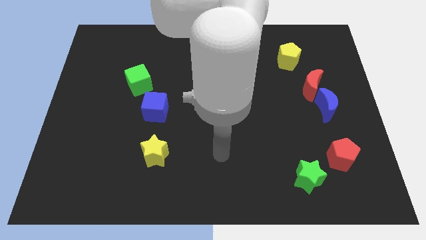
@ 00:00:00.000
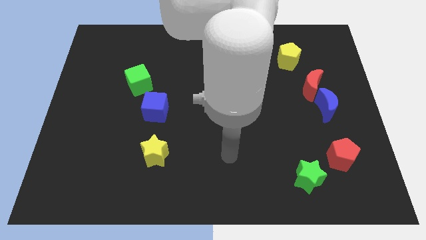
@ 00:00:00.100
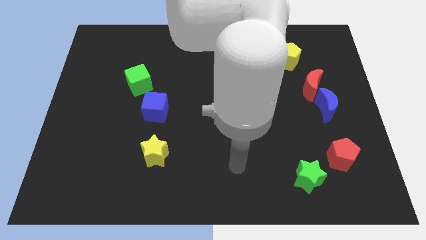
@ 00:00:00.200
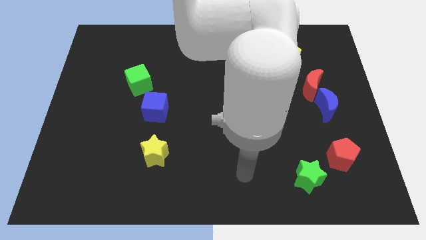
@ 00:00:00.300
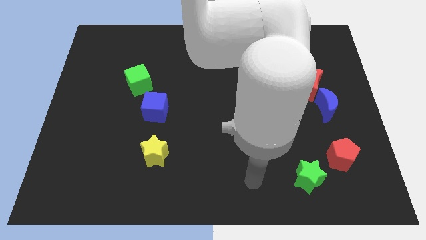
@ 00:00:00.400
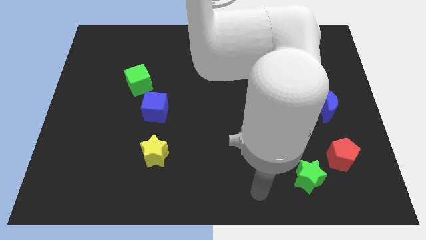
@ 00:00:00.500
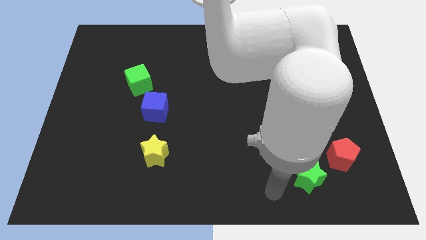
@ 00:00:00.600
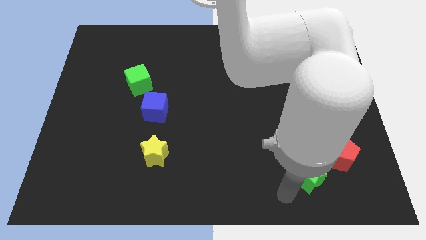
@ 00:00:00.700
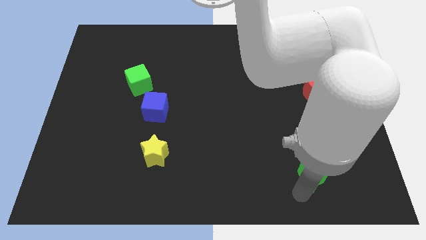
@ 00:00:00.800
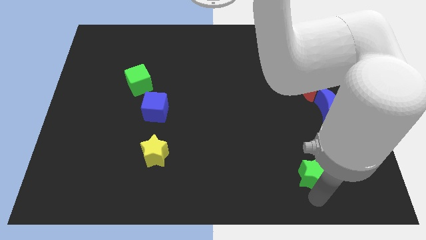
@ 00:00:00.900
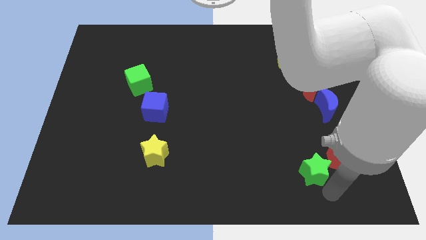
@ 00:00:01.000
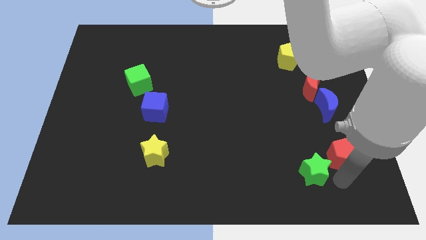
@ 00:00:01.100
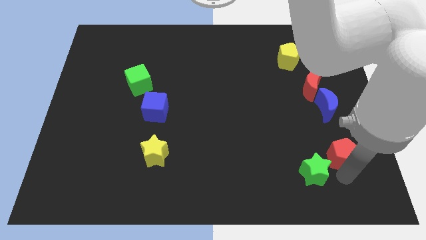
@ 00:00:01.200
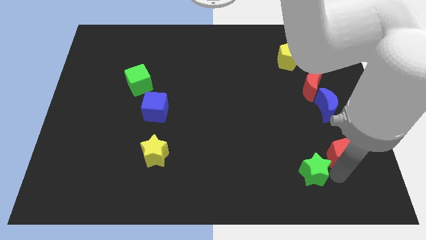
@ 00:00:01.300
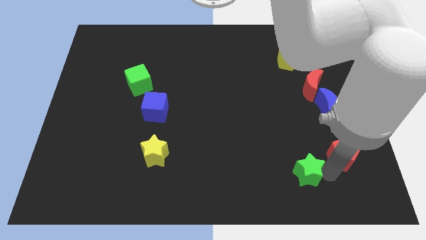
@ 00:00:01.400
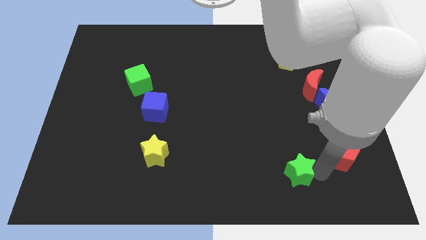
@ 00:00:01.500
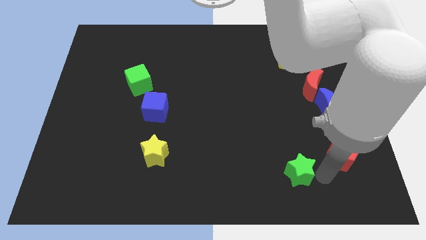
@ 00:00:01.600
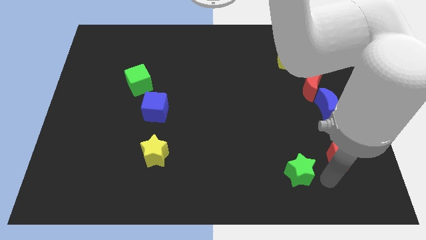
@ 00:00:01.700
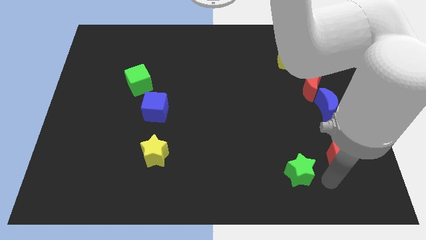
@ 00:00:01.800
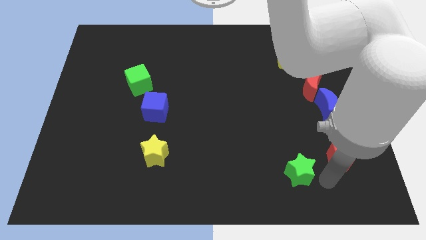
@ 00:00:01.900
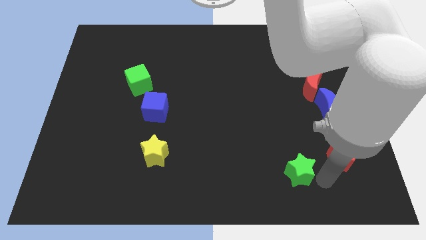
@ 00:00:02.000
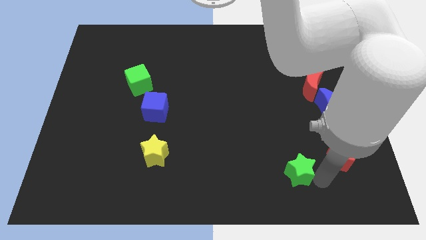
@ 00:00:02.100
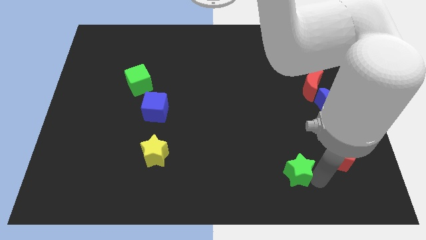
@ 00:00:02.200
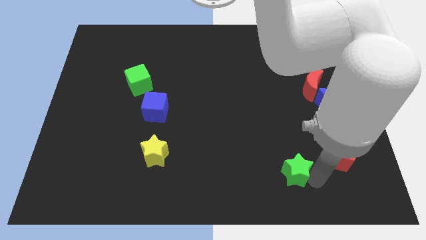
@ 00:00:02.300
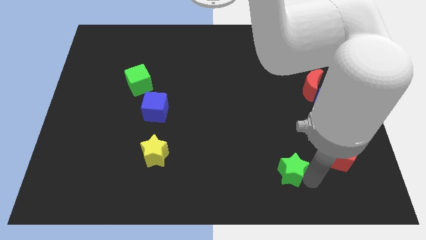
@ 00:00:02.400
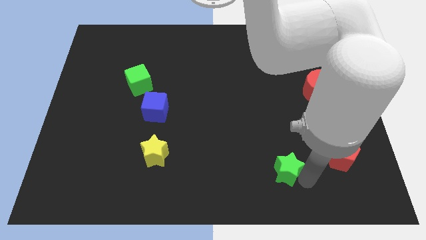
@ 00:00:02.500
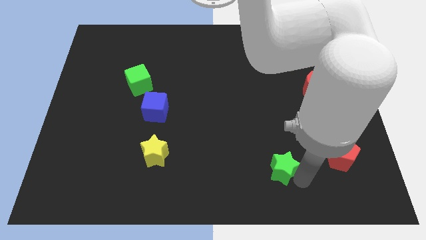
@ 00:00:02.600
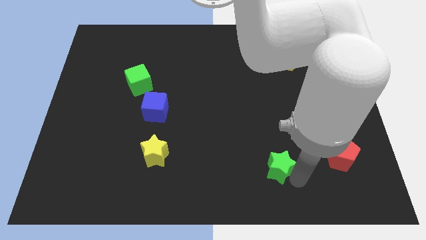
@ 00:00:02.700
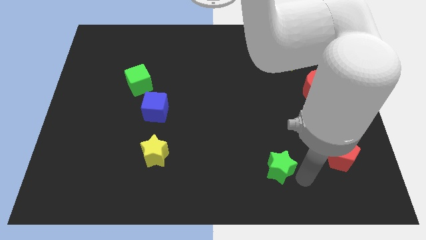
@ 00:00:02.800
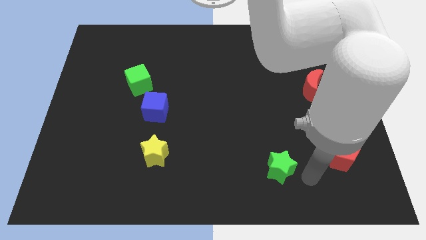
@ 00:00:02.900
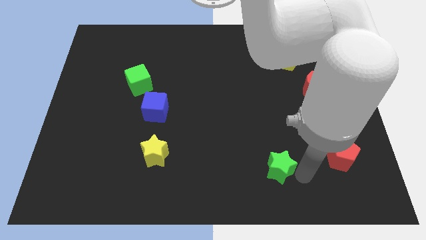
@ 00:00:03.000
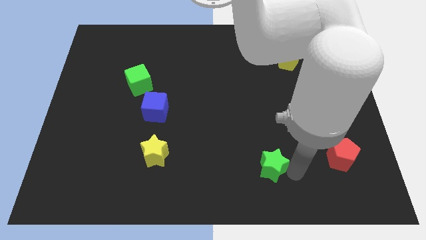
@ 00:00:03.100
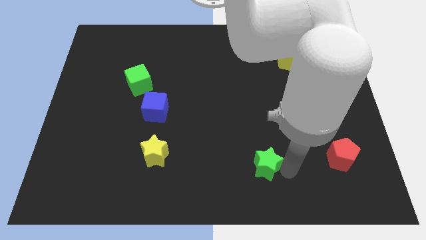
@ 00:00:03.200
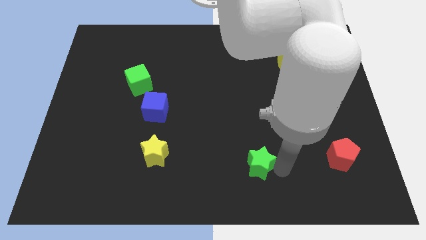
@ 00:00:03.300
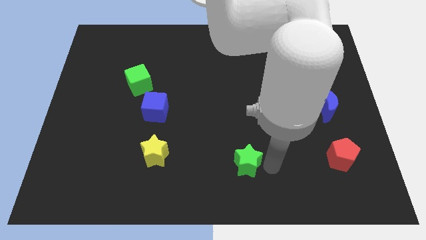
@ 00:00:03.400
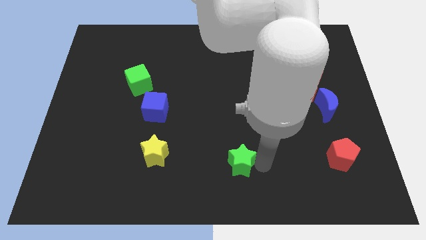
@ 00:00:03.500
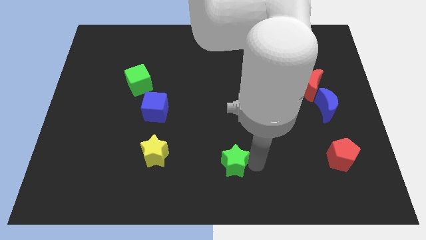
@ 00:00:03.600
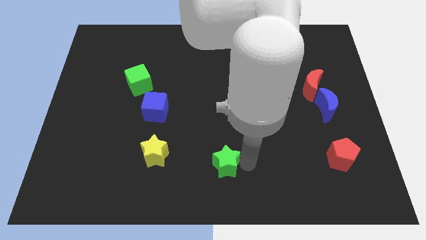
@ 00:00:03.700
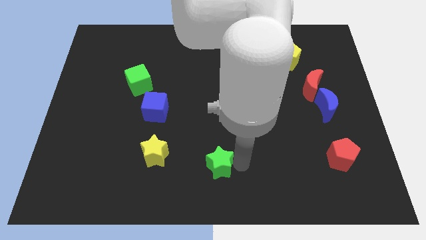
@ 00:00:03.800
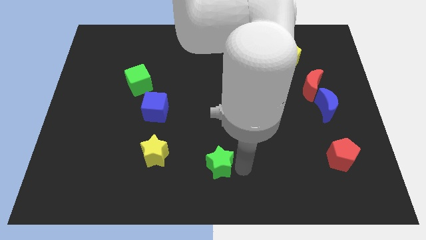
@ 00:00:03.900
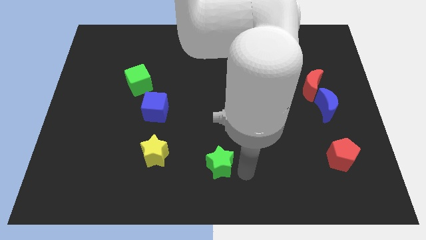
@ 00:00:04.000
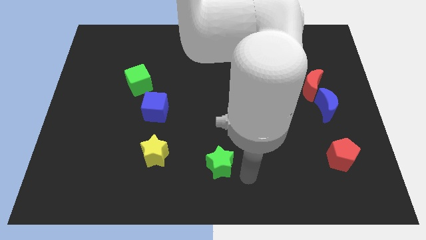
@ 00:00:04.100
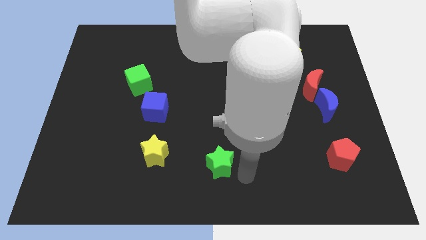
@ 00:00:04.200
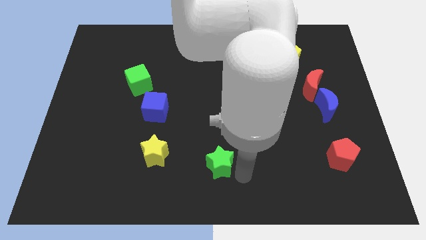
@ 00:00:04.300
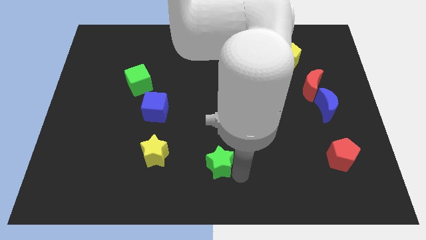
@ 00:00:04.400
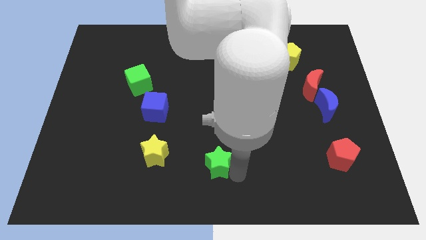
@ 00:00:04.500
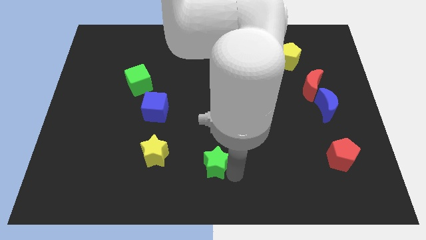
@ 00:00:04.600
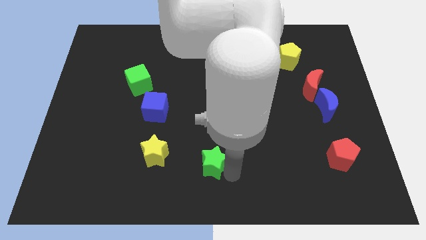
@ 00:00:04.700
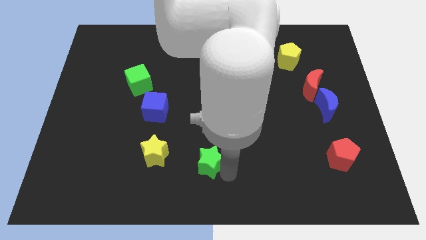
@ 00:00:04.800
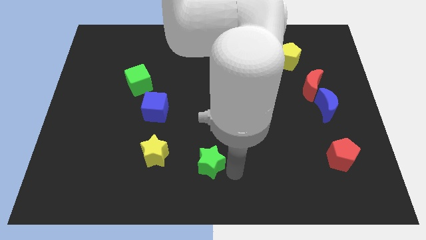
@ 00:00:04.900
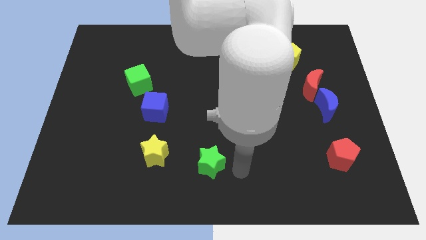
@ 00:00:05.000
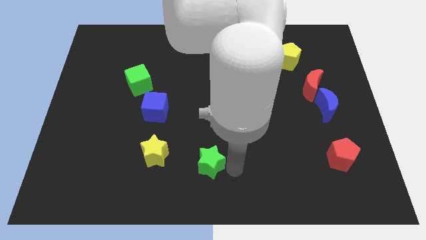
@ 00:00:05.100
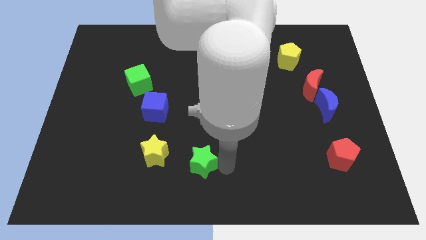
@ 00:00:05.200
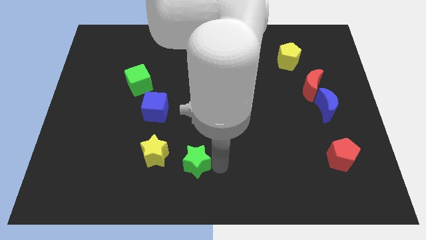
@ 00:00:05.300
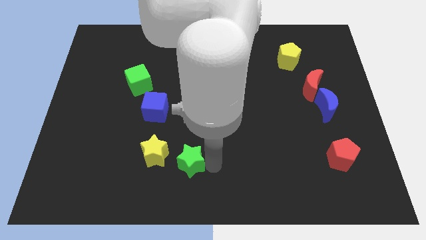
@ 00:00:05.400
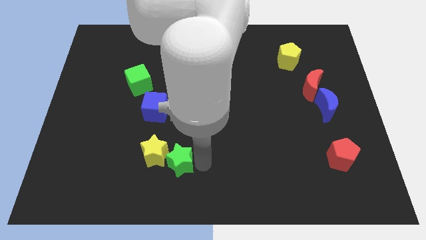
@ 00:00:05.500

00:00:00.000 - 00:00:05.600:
move the green star towards the yellow star

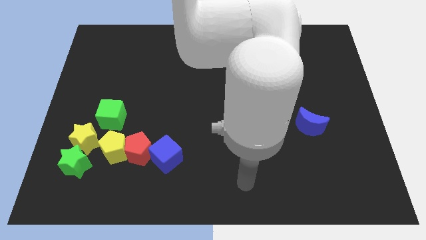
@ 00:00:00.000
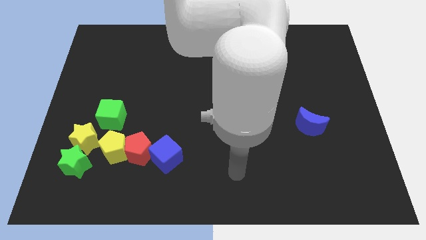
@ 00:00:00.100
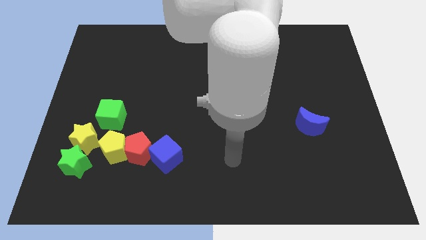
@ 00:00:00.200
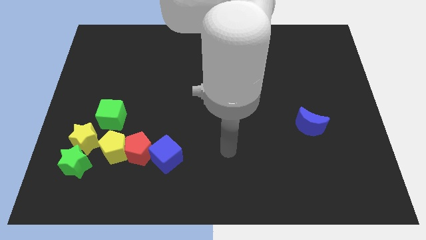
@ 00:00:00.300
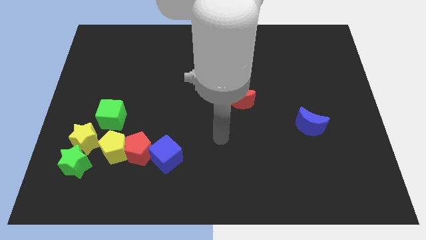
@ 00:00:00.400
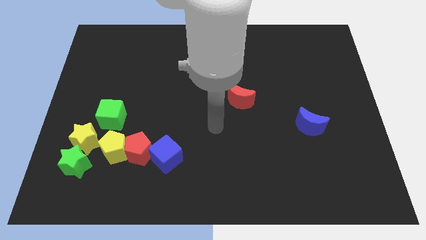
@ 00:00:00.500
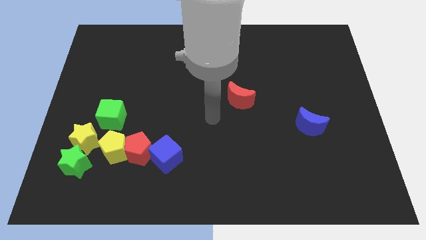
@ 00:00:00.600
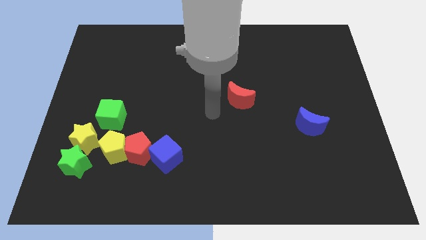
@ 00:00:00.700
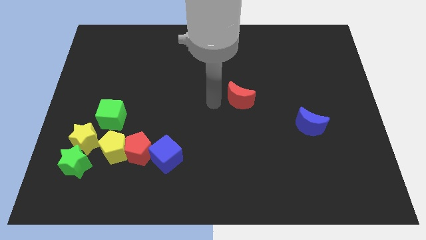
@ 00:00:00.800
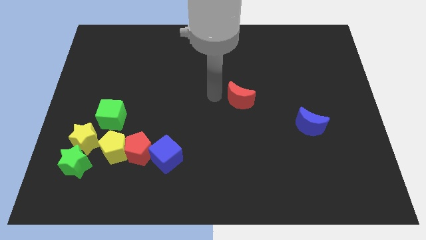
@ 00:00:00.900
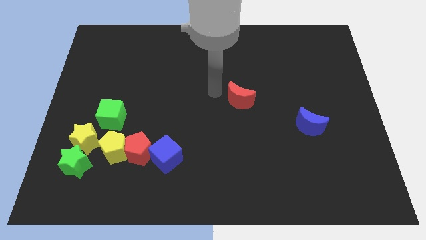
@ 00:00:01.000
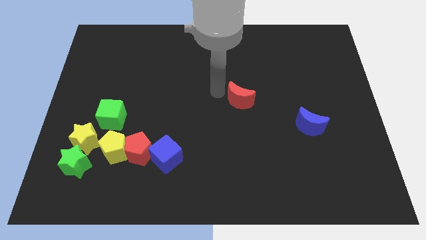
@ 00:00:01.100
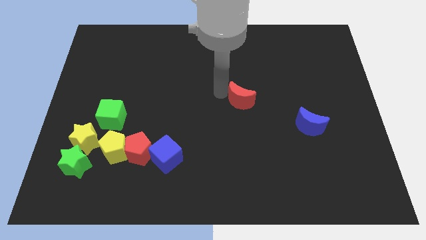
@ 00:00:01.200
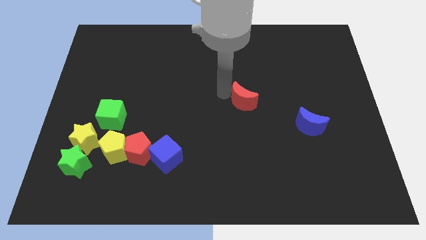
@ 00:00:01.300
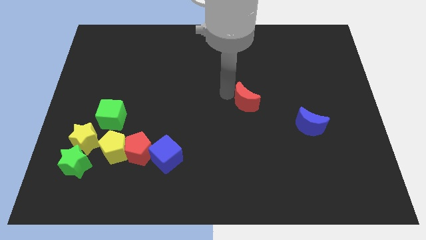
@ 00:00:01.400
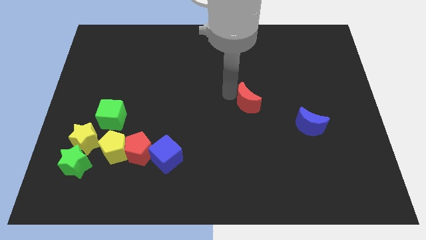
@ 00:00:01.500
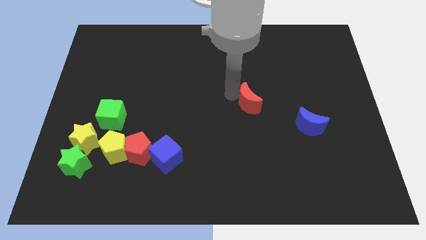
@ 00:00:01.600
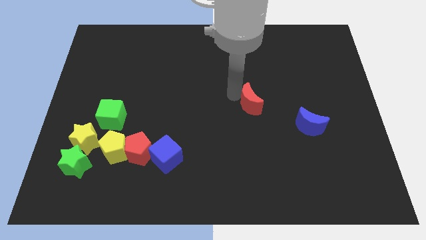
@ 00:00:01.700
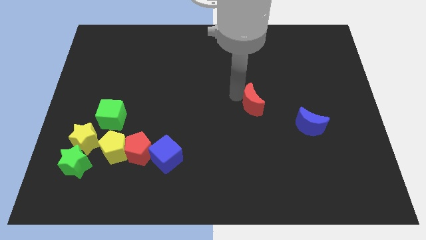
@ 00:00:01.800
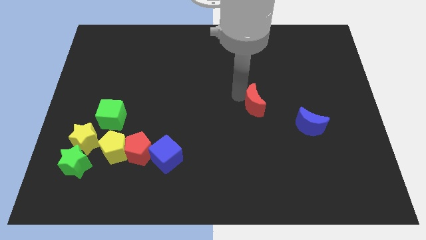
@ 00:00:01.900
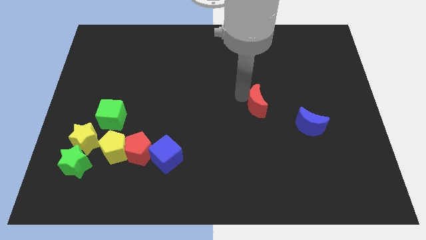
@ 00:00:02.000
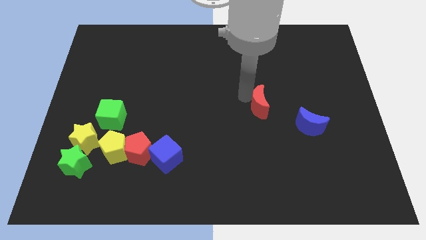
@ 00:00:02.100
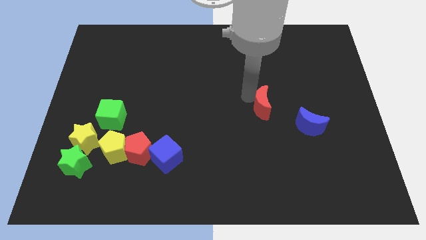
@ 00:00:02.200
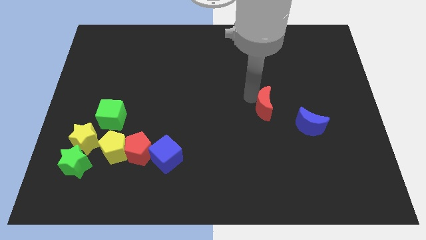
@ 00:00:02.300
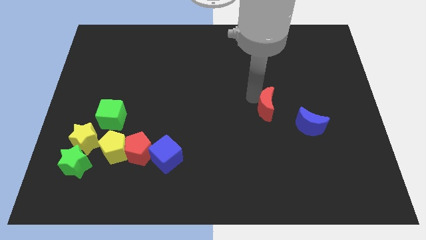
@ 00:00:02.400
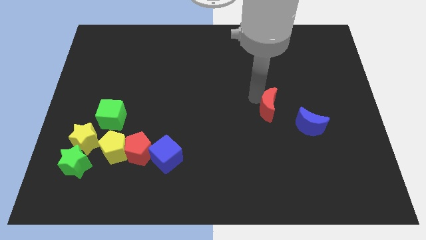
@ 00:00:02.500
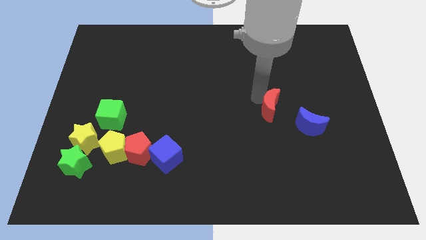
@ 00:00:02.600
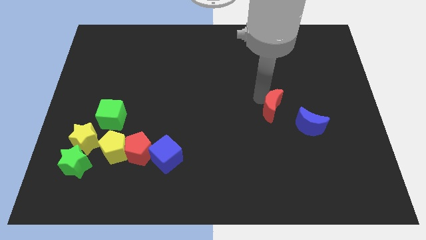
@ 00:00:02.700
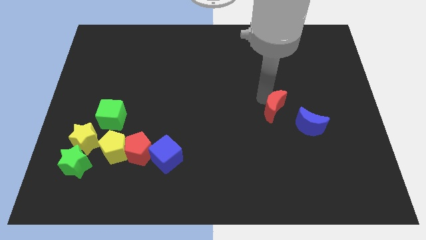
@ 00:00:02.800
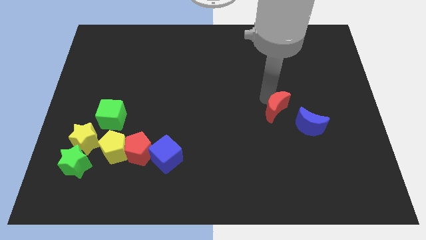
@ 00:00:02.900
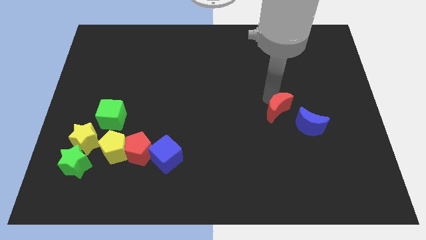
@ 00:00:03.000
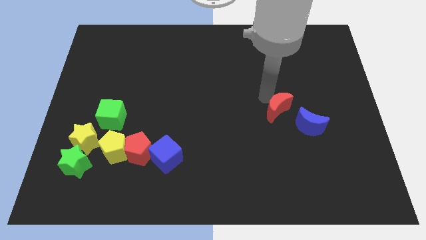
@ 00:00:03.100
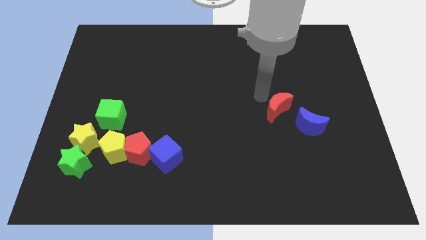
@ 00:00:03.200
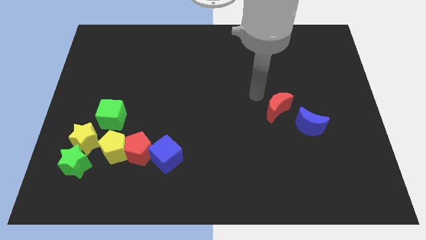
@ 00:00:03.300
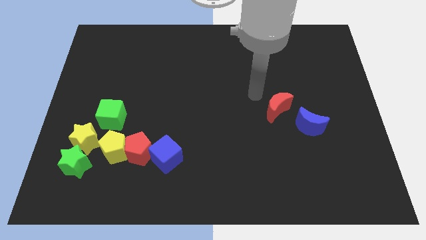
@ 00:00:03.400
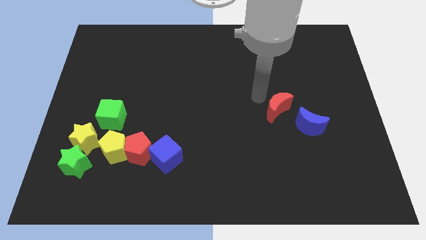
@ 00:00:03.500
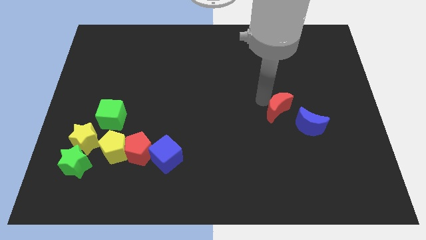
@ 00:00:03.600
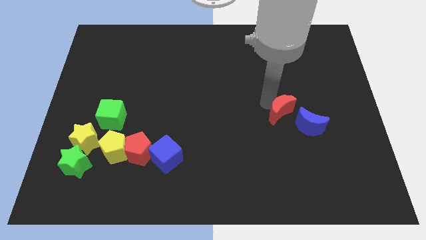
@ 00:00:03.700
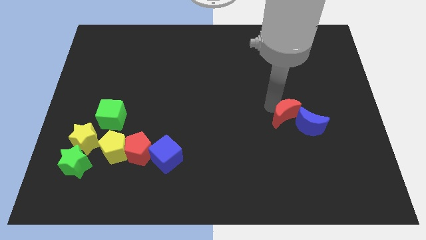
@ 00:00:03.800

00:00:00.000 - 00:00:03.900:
move the red moon towards the blue moon
